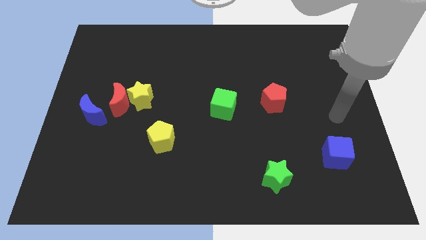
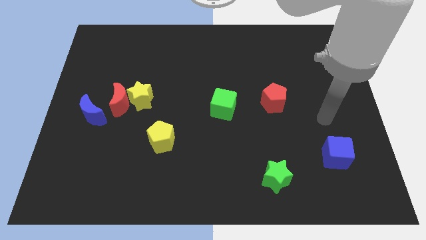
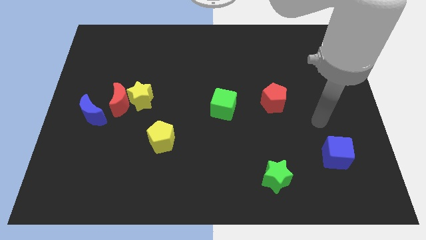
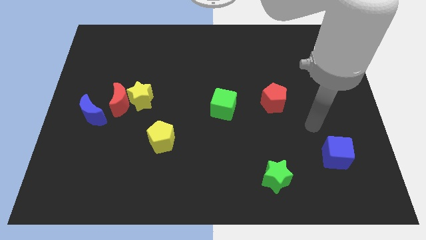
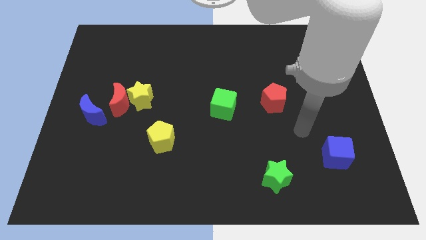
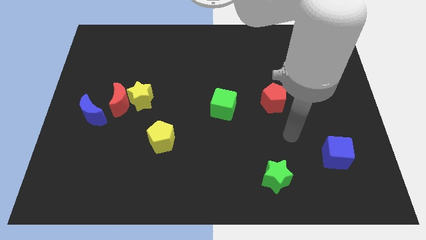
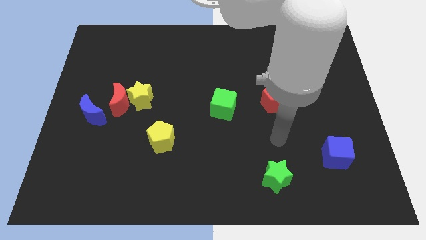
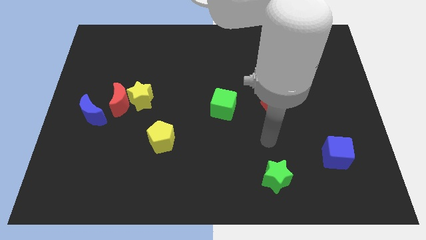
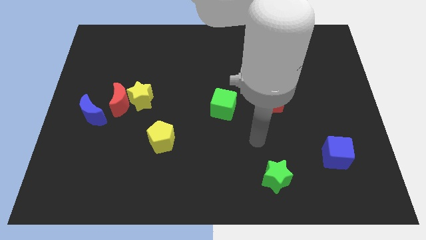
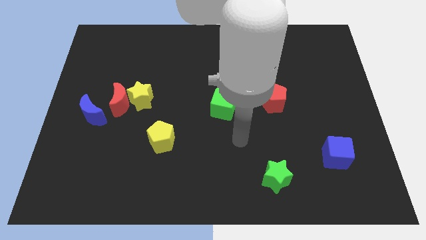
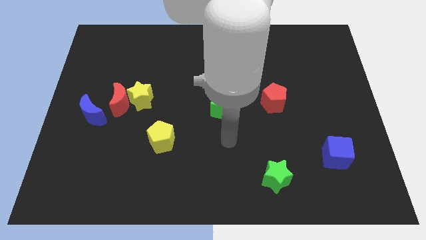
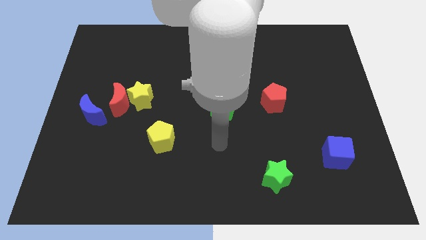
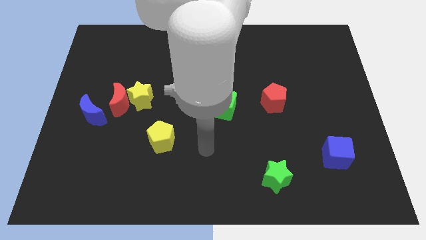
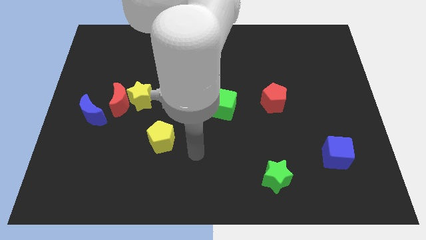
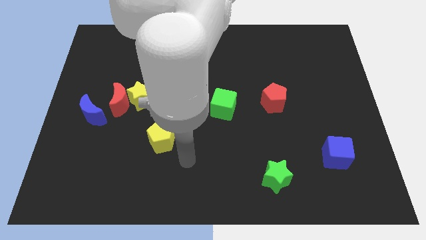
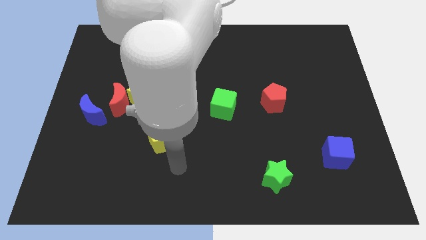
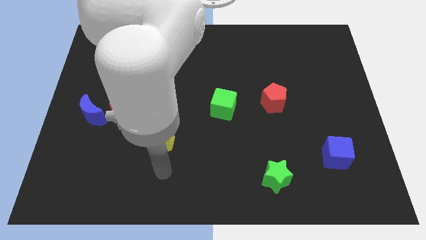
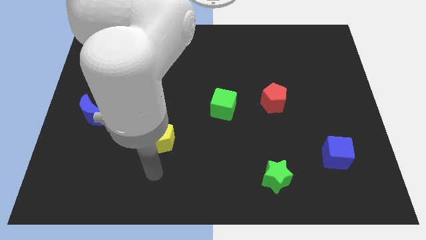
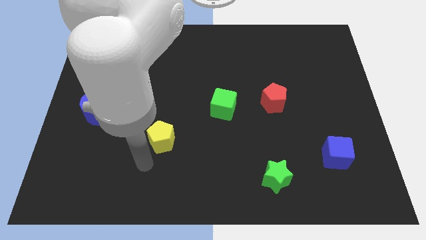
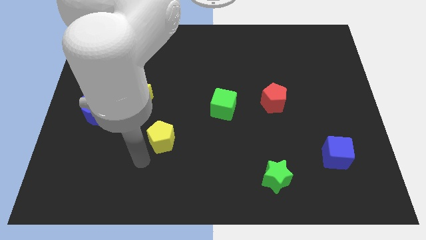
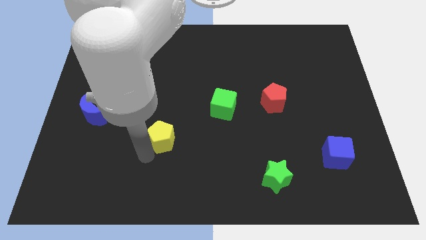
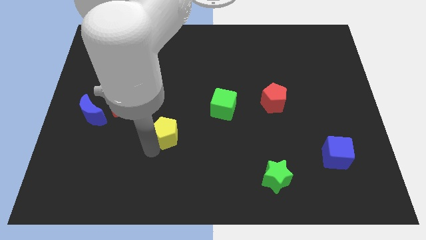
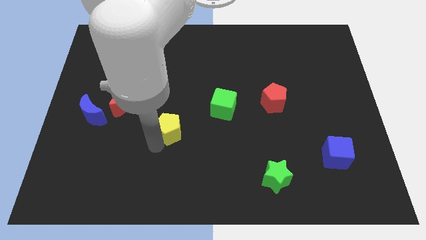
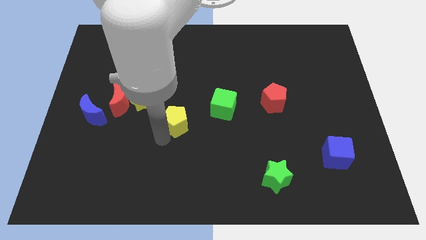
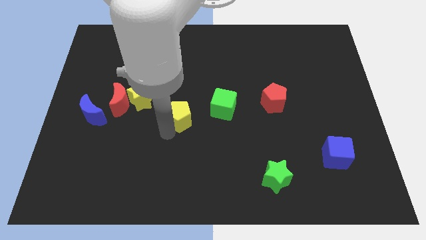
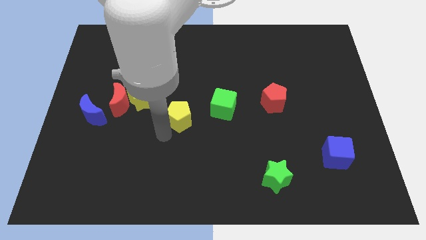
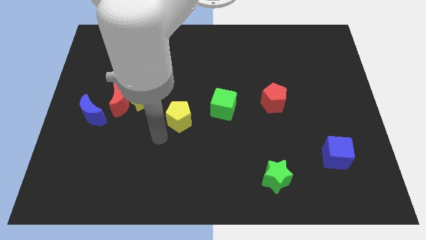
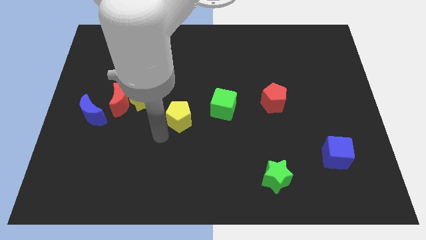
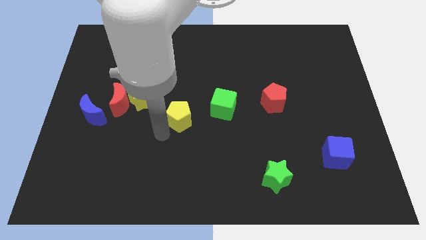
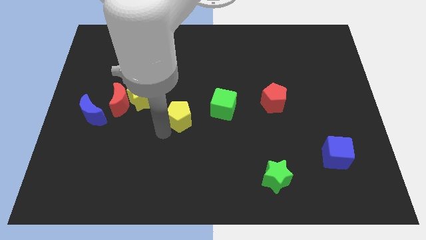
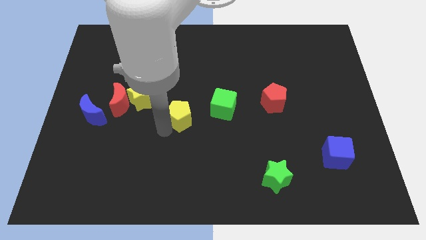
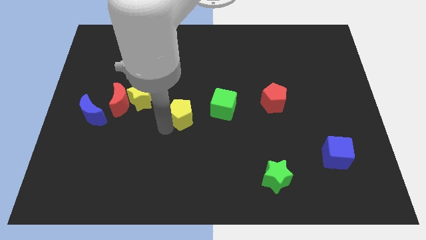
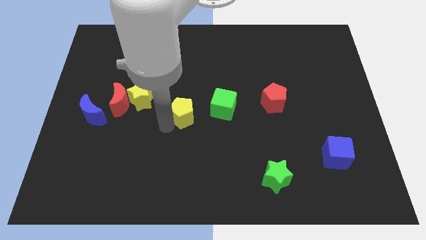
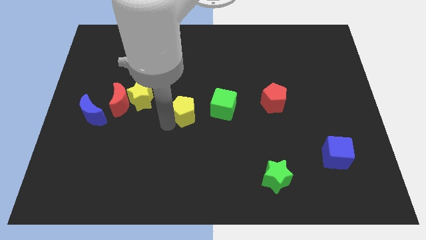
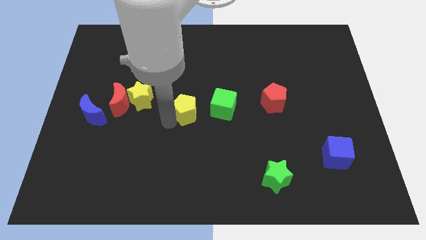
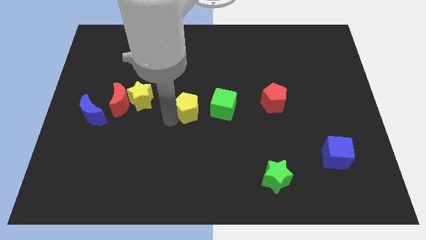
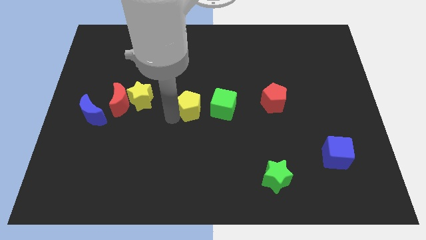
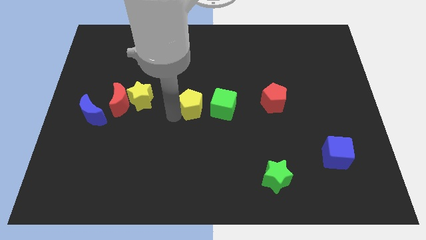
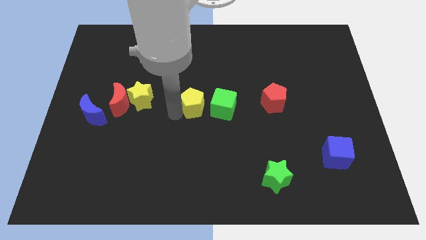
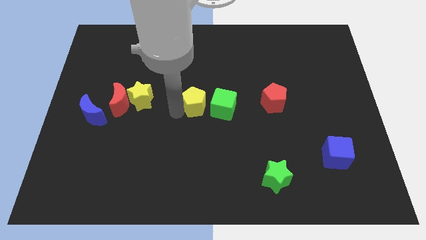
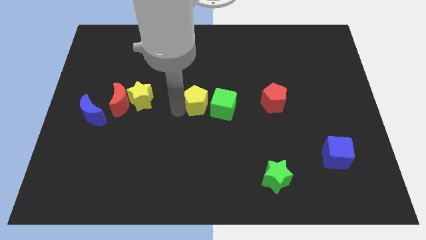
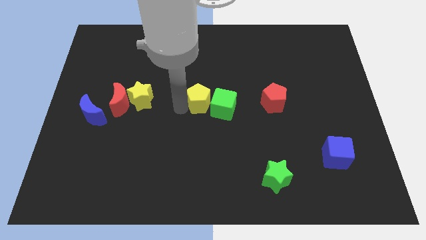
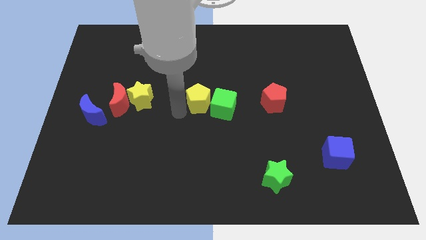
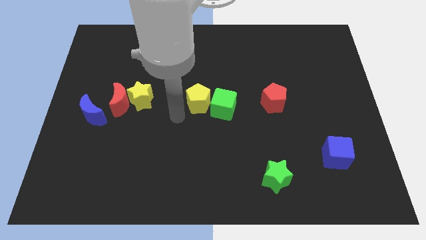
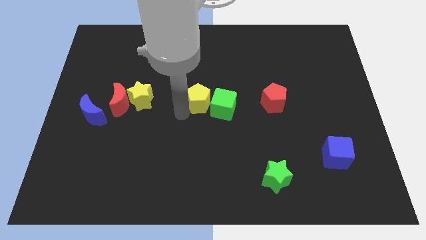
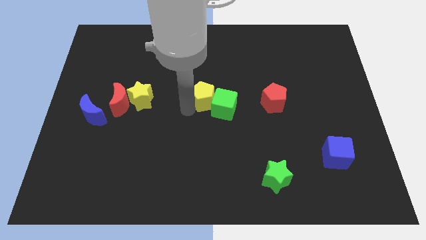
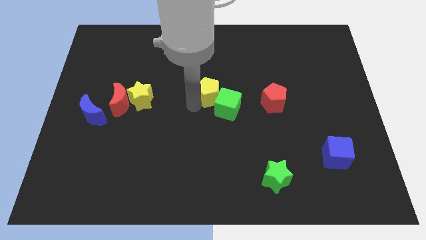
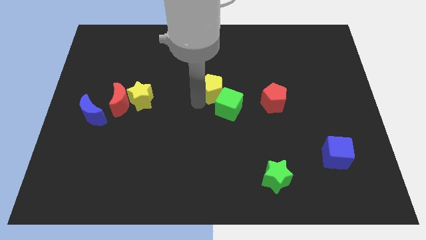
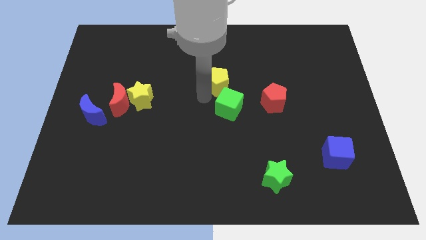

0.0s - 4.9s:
move the yellow pentagon upwards and right

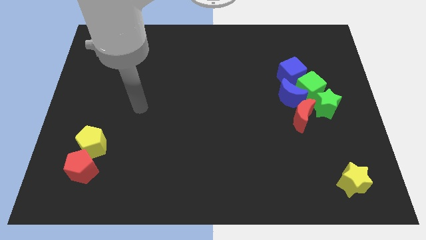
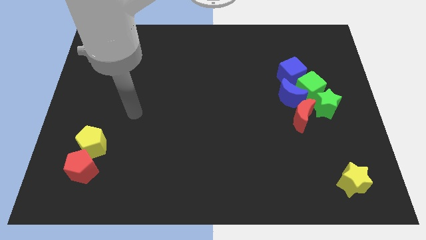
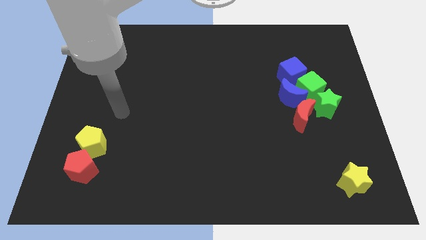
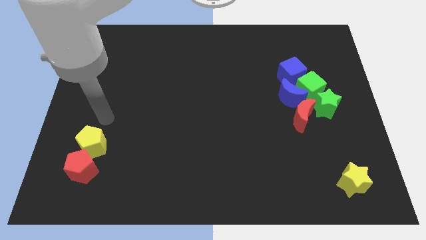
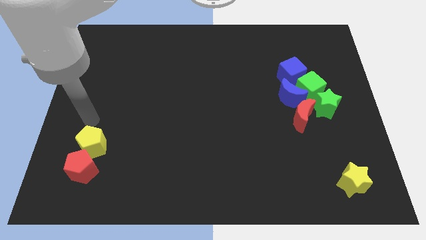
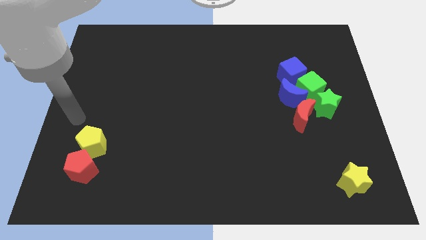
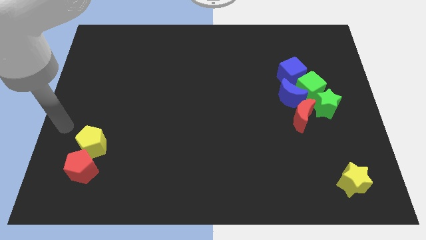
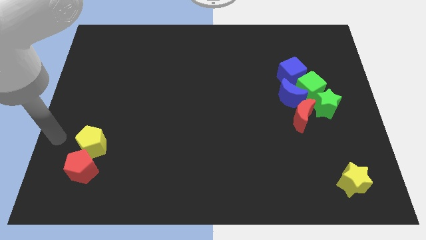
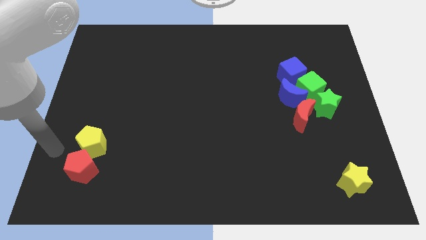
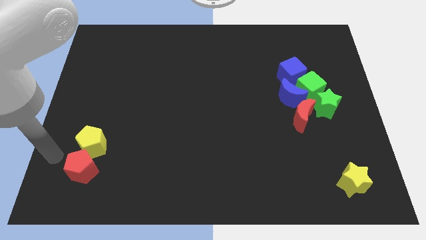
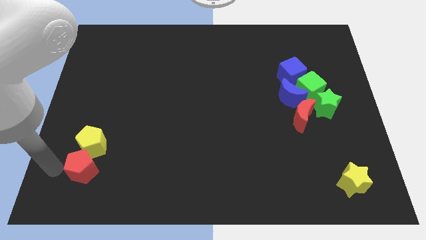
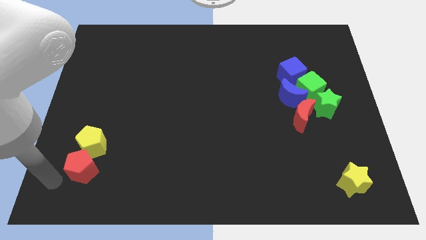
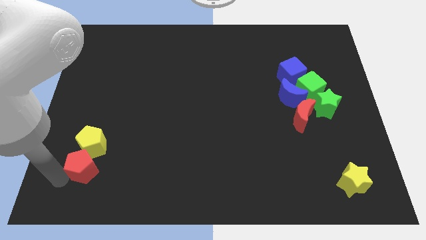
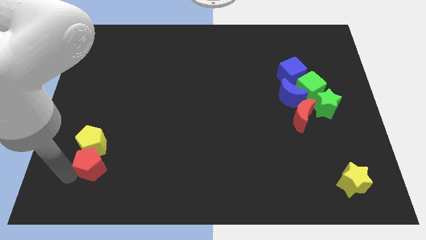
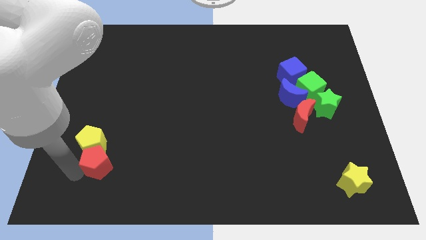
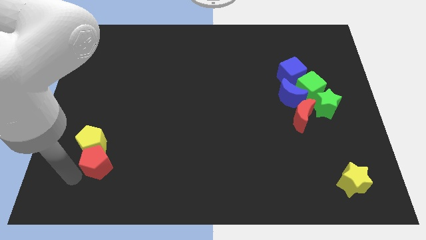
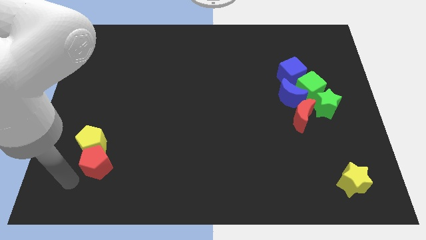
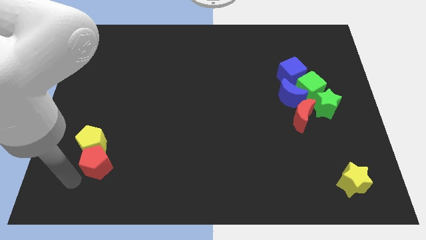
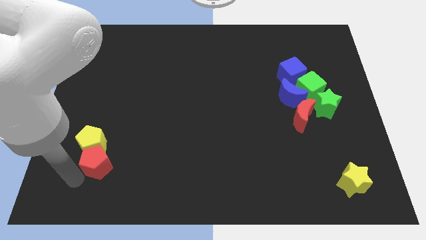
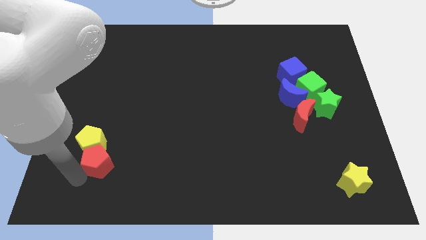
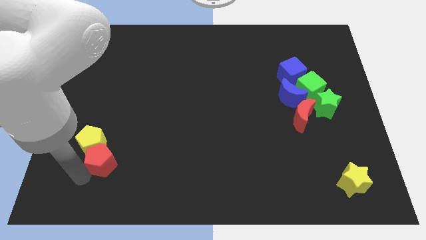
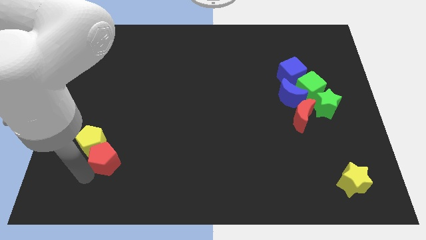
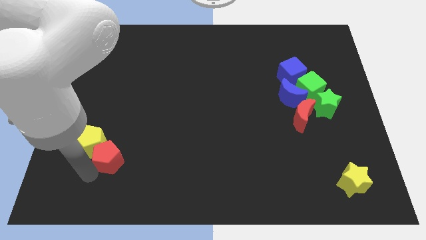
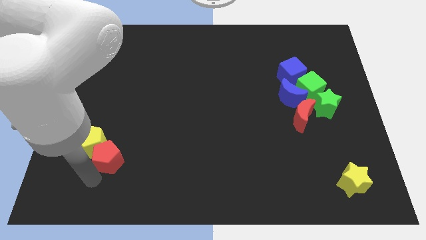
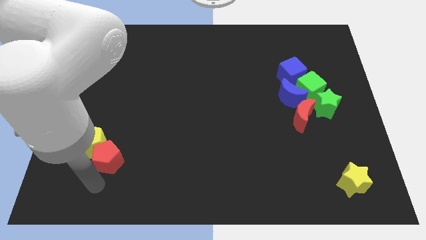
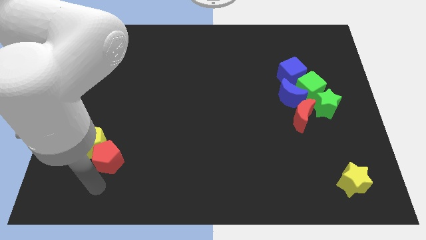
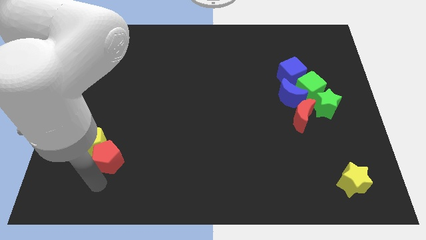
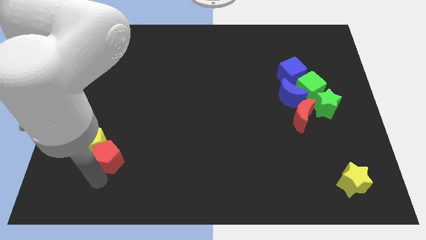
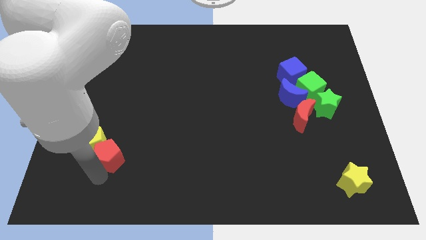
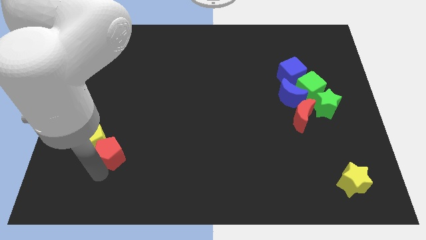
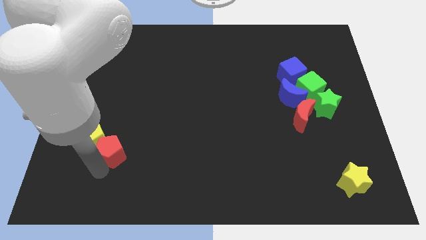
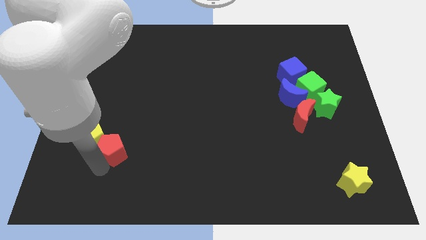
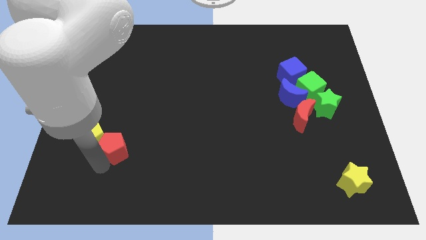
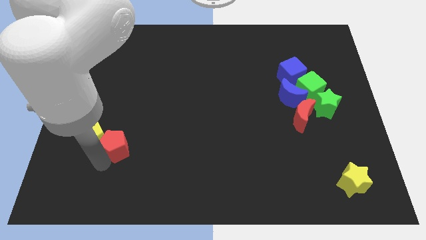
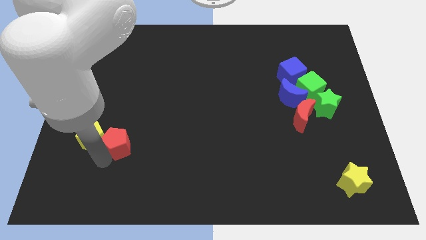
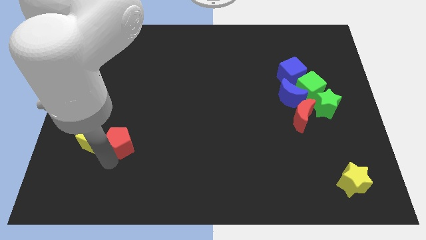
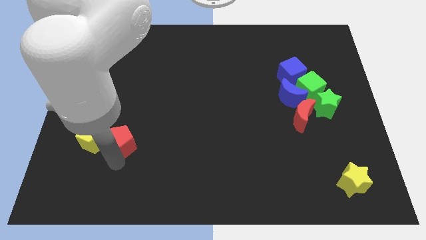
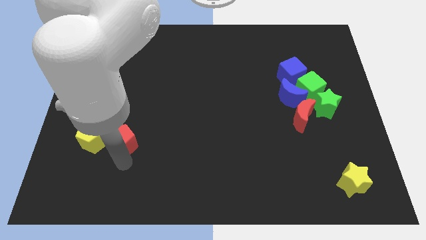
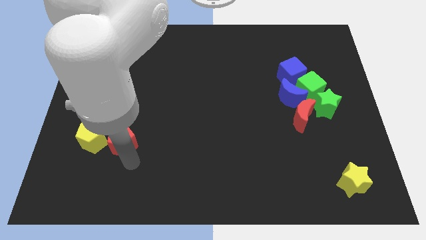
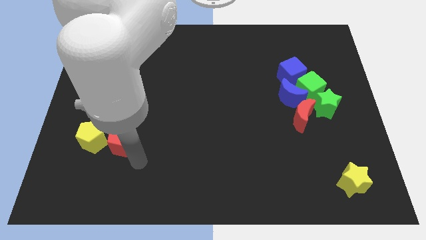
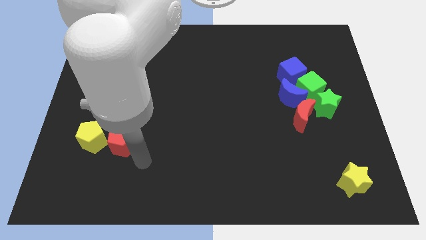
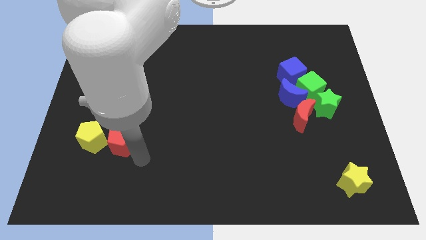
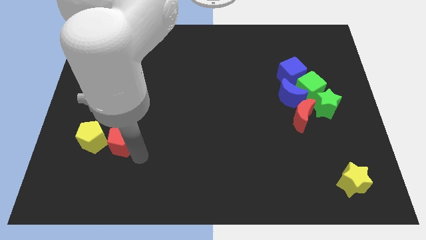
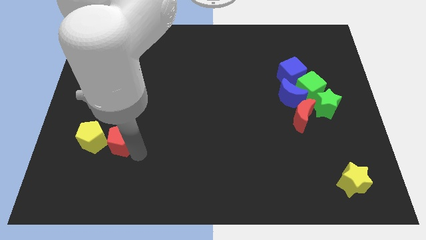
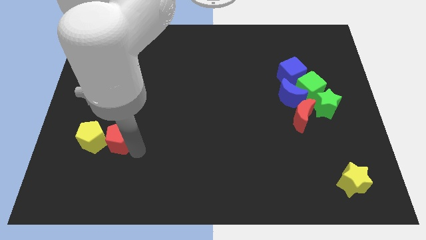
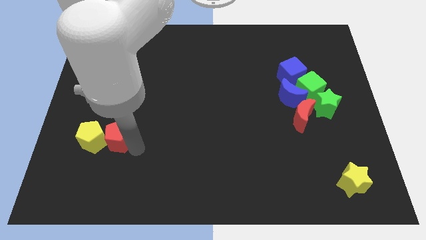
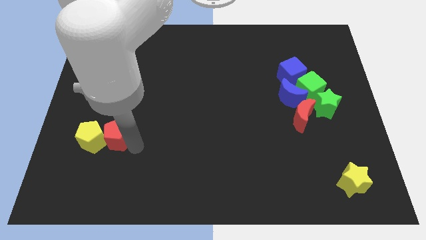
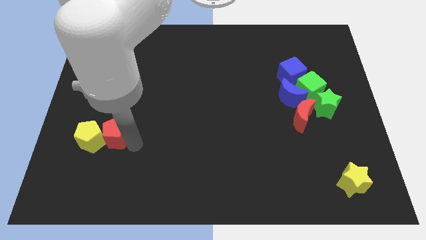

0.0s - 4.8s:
move the red pentagon up slightly
